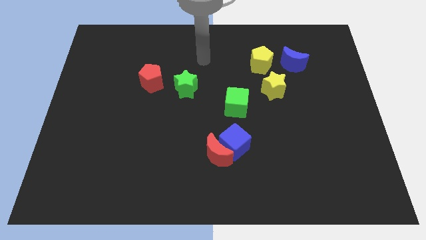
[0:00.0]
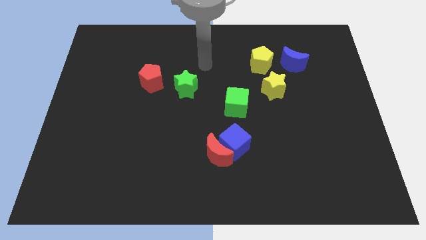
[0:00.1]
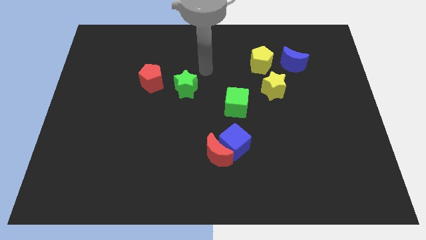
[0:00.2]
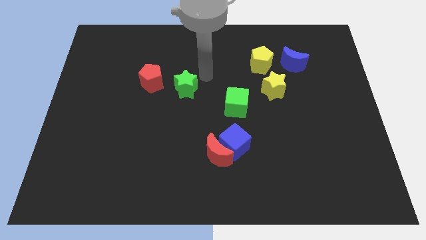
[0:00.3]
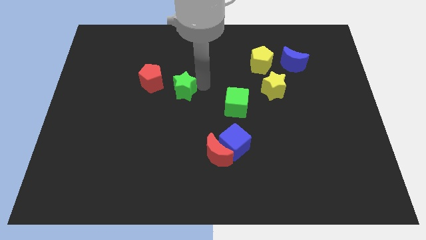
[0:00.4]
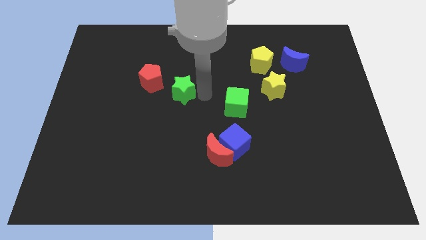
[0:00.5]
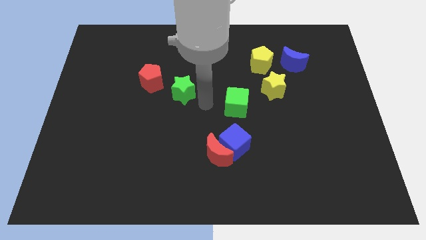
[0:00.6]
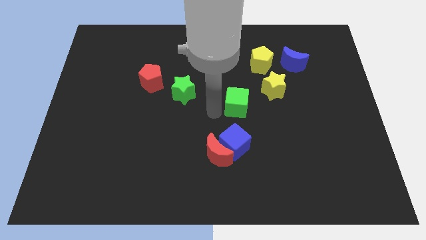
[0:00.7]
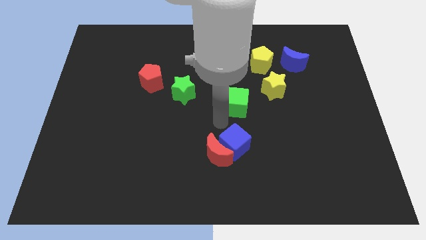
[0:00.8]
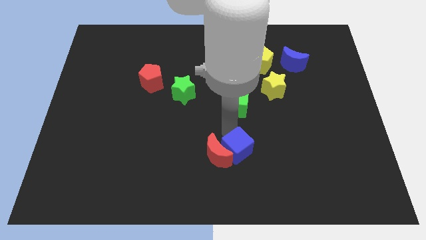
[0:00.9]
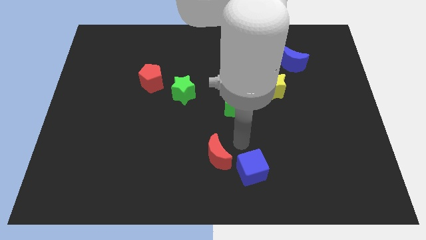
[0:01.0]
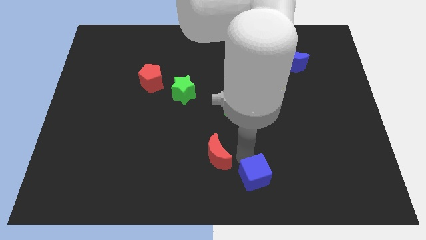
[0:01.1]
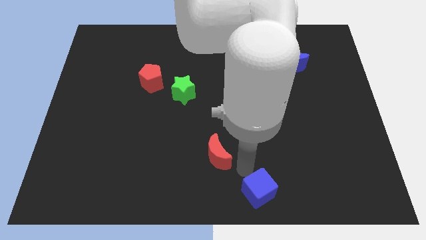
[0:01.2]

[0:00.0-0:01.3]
move the red moon away from the blue cube

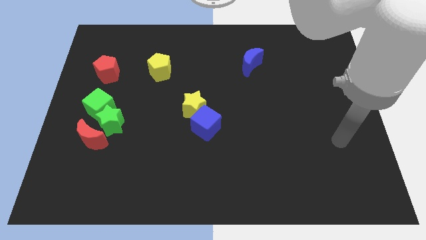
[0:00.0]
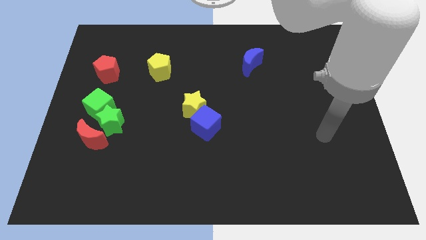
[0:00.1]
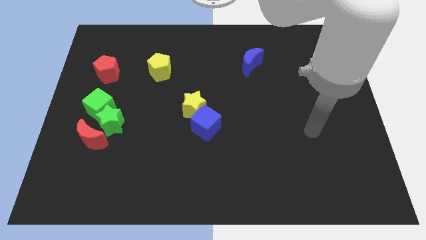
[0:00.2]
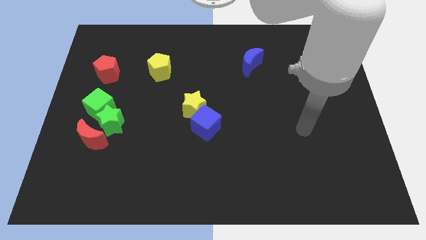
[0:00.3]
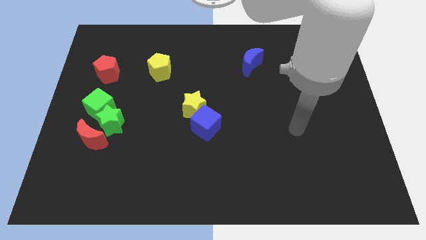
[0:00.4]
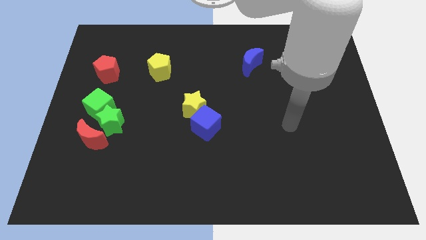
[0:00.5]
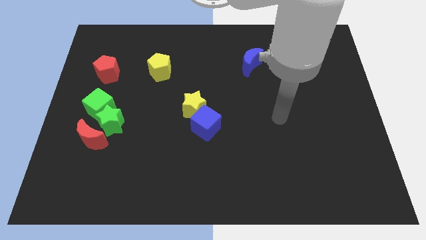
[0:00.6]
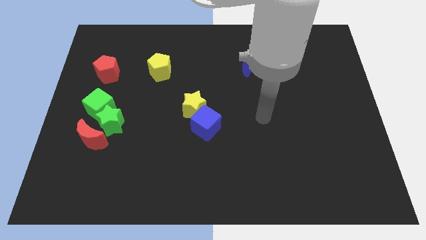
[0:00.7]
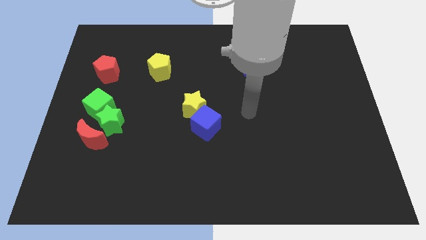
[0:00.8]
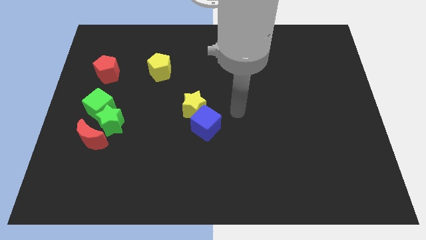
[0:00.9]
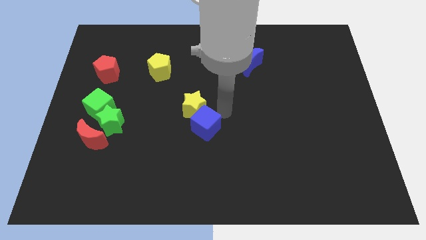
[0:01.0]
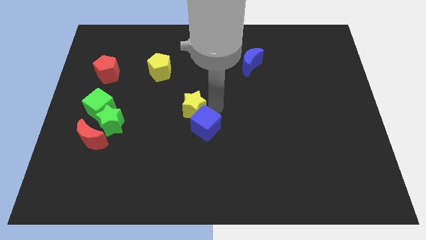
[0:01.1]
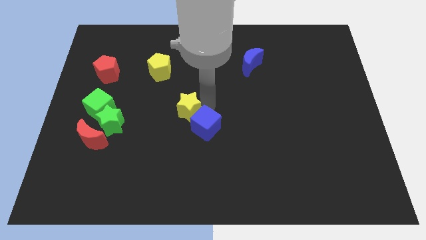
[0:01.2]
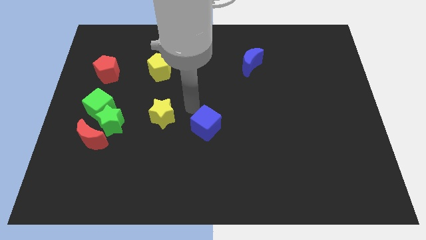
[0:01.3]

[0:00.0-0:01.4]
move the blue cube away from the yellow star

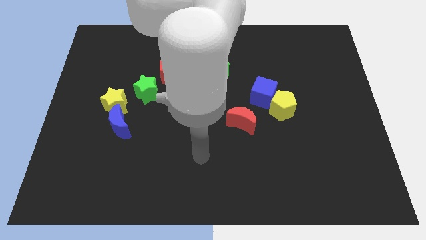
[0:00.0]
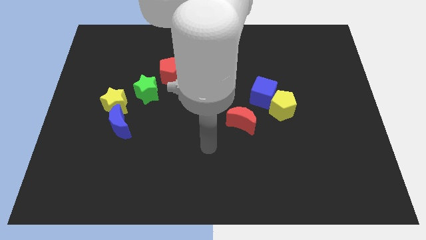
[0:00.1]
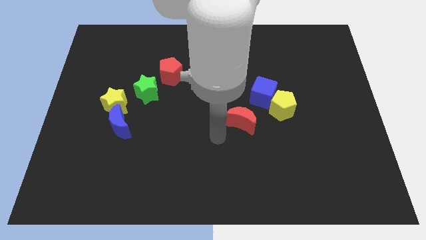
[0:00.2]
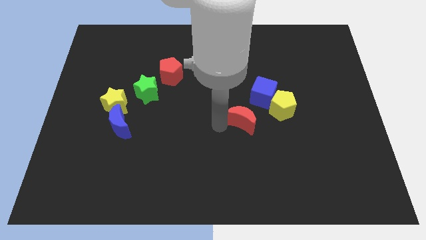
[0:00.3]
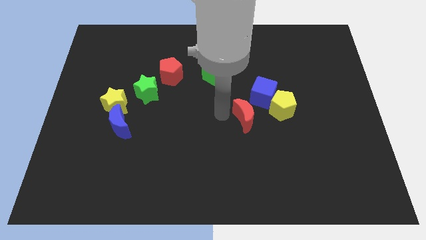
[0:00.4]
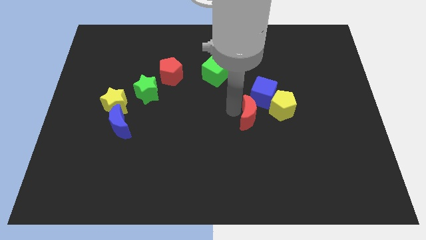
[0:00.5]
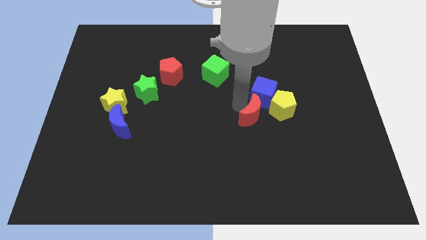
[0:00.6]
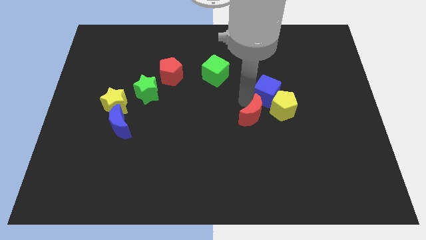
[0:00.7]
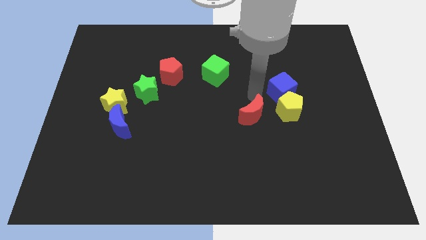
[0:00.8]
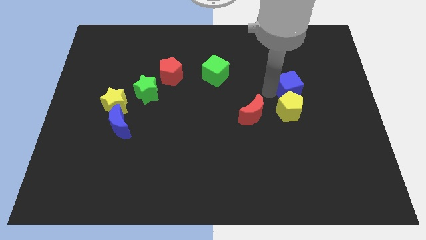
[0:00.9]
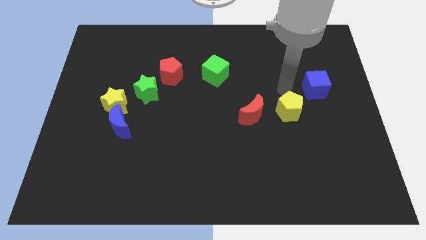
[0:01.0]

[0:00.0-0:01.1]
move the yellow pentagon away from the blue cube

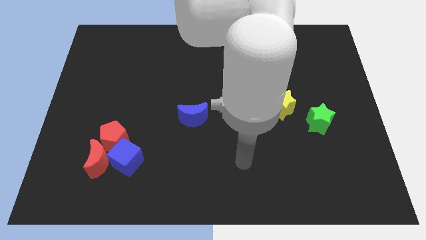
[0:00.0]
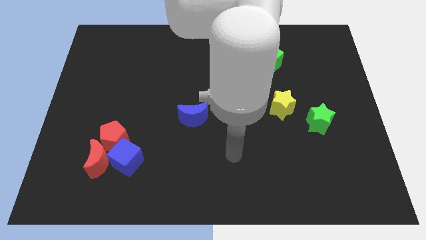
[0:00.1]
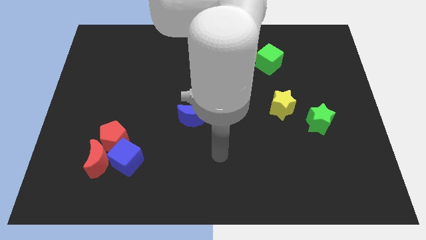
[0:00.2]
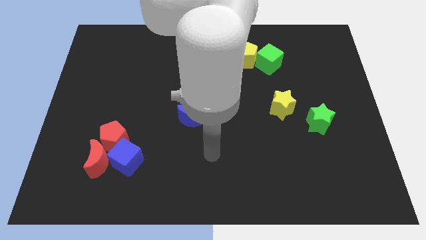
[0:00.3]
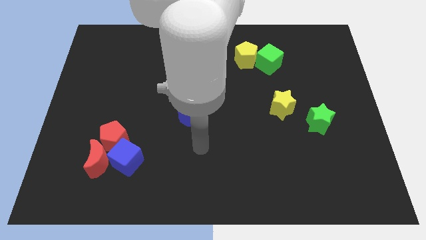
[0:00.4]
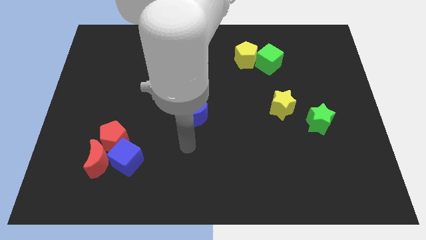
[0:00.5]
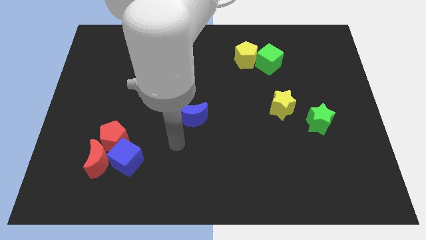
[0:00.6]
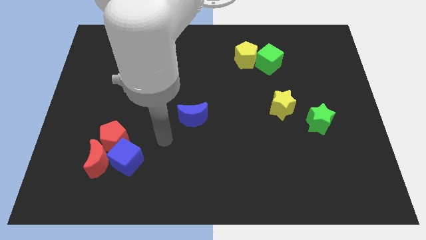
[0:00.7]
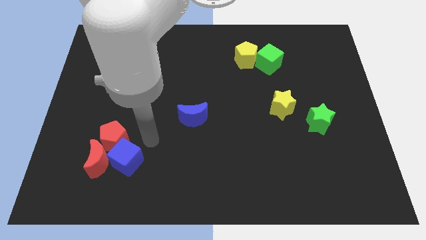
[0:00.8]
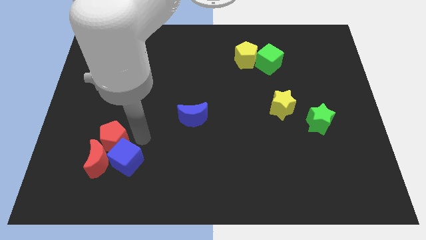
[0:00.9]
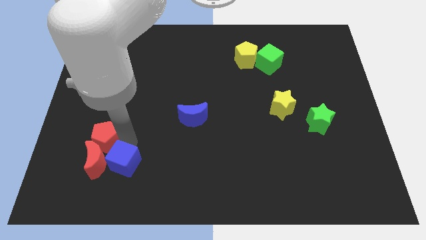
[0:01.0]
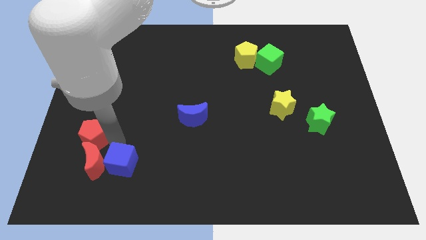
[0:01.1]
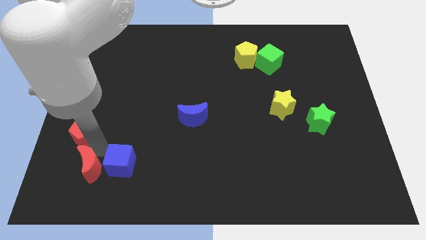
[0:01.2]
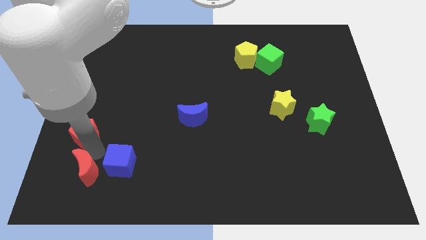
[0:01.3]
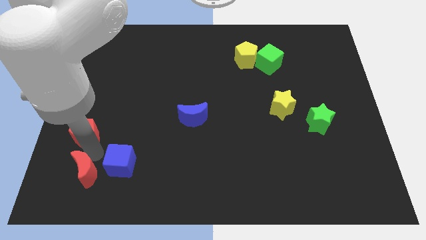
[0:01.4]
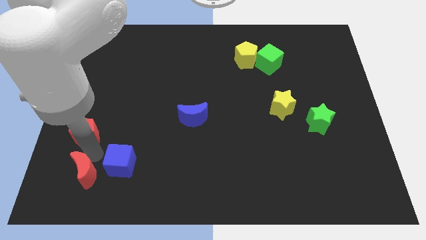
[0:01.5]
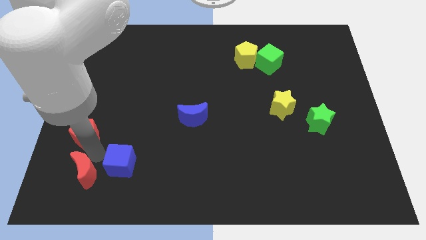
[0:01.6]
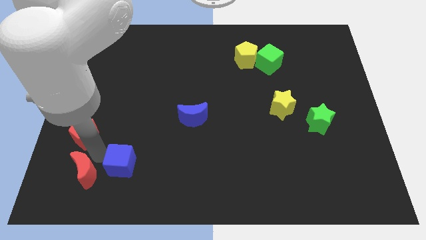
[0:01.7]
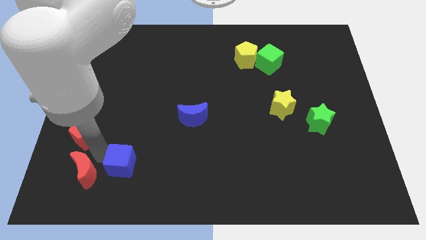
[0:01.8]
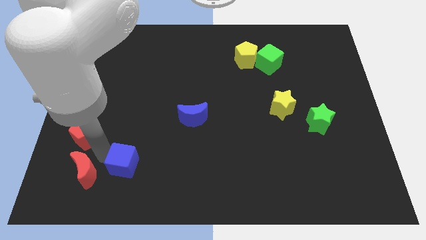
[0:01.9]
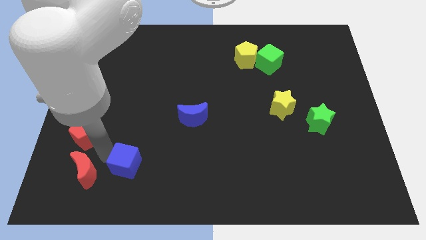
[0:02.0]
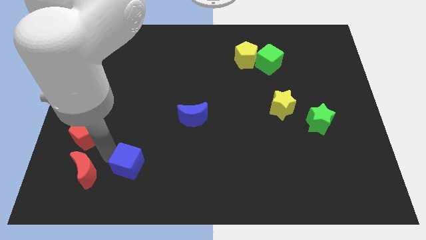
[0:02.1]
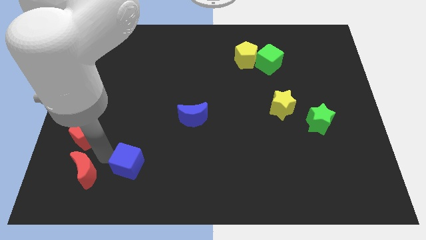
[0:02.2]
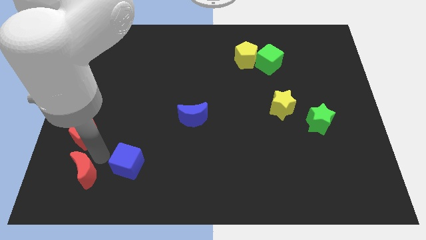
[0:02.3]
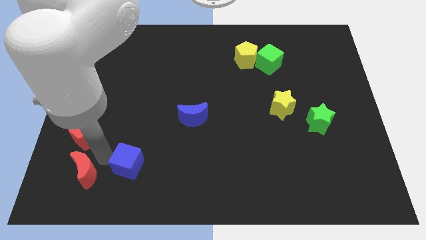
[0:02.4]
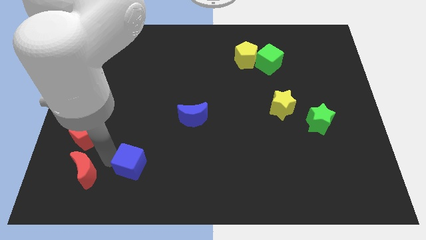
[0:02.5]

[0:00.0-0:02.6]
pull the blue cube apart from the red moon and red pentagon

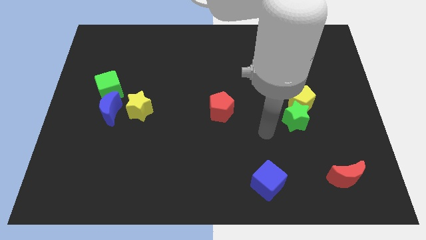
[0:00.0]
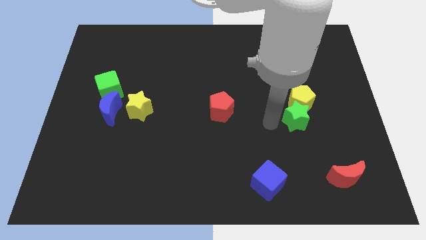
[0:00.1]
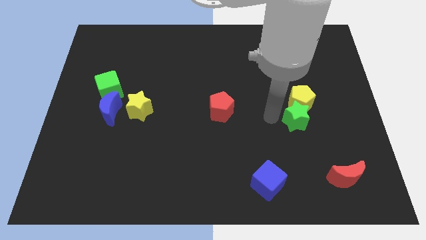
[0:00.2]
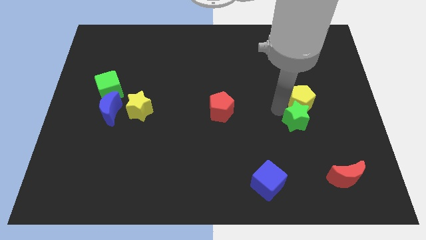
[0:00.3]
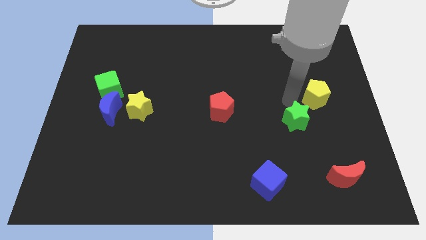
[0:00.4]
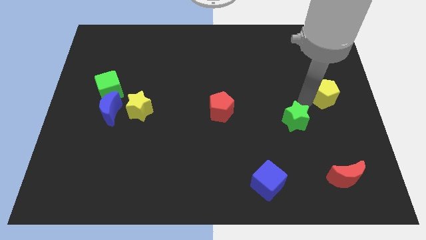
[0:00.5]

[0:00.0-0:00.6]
move the green star away from the yellow pentagon

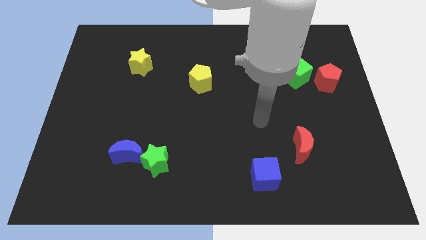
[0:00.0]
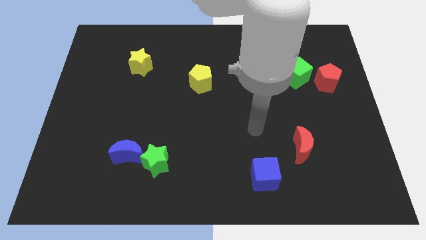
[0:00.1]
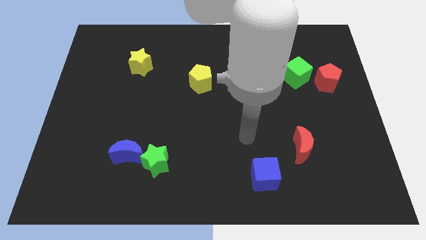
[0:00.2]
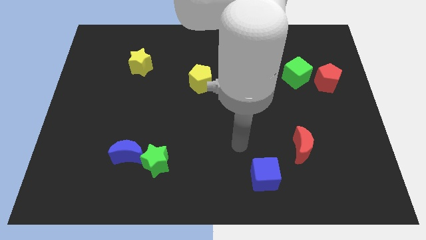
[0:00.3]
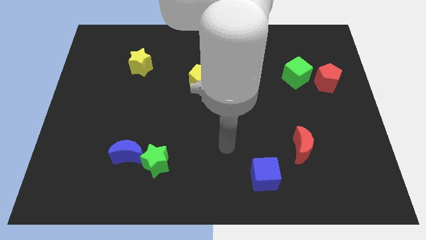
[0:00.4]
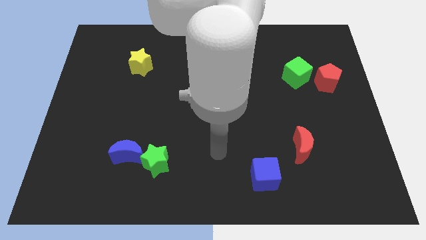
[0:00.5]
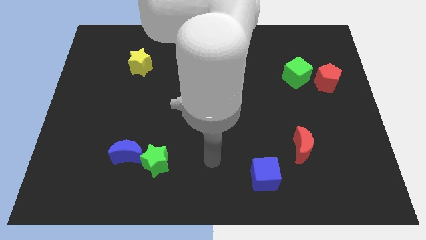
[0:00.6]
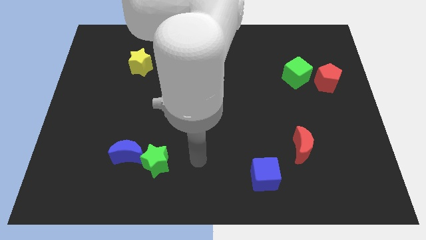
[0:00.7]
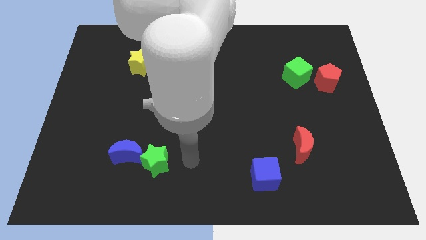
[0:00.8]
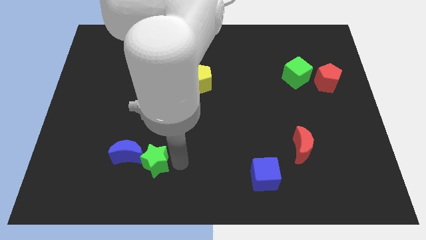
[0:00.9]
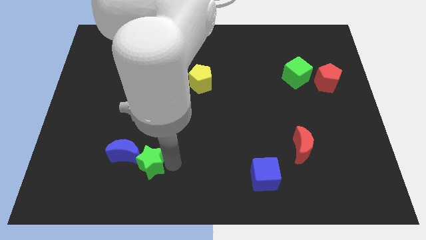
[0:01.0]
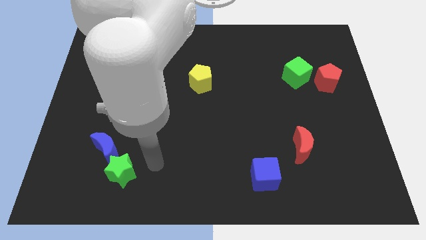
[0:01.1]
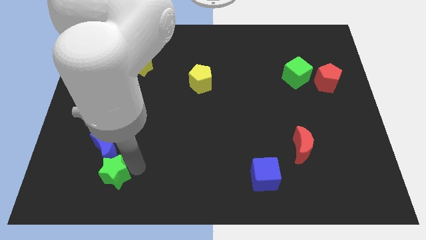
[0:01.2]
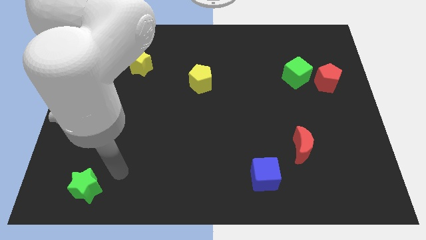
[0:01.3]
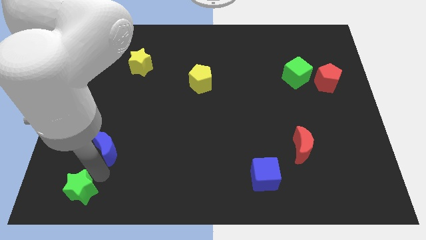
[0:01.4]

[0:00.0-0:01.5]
separate the blue moon from the green star

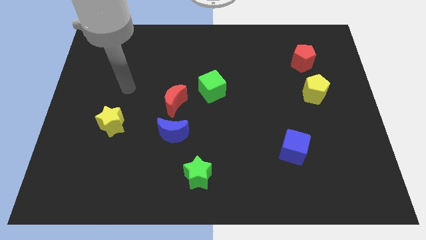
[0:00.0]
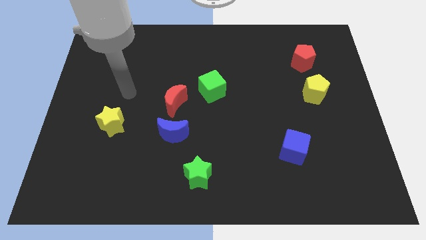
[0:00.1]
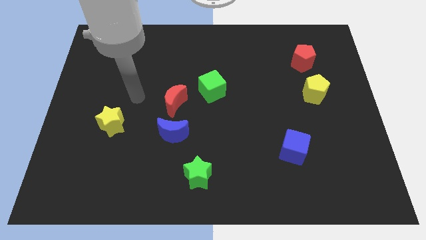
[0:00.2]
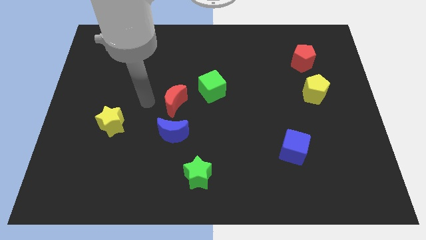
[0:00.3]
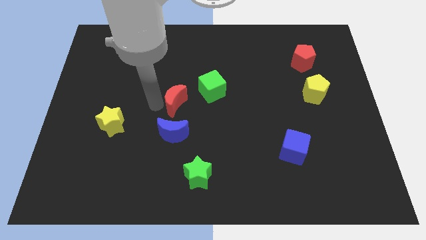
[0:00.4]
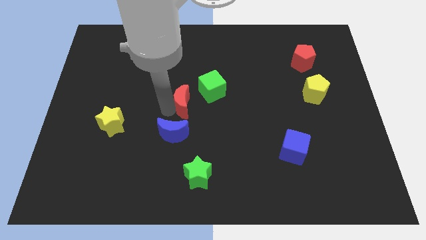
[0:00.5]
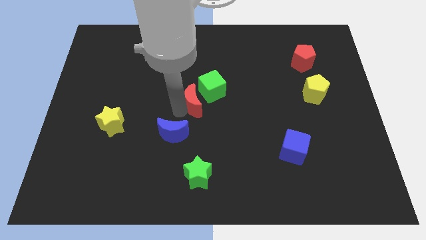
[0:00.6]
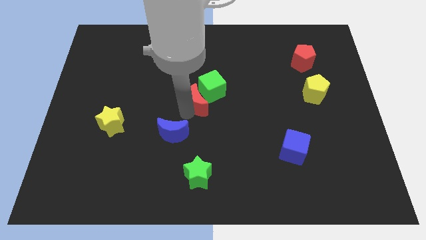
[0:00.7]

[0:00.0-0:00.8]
pull the blue moon apart from the red moon

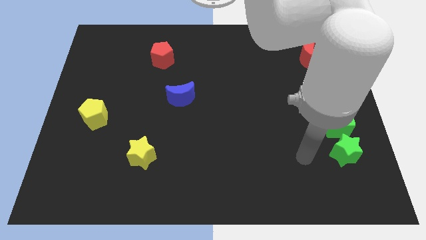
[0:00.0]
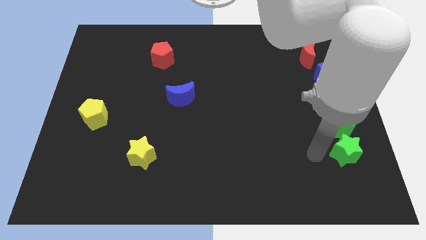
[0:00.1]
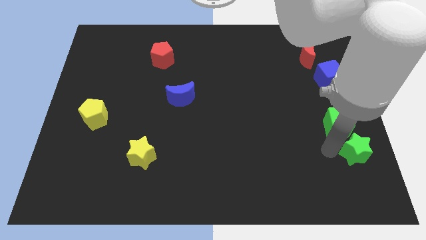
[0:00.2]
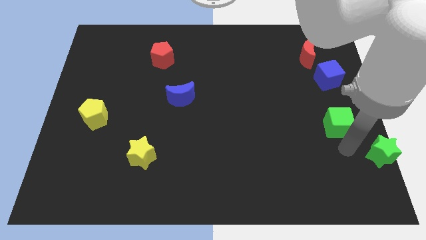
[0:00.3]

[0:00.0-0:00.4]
pull the green cube apart from the green star
